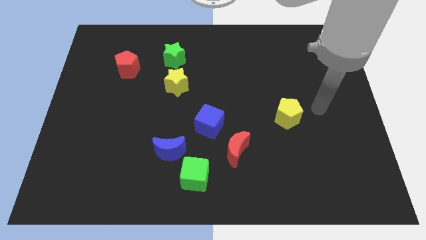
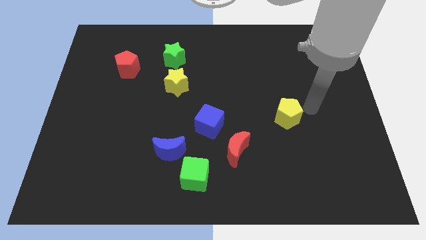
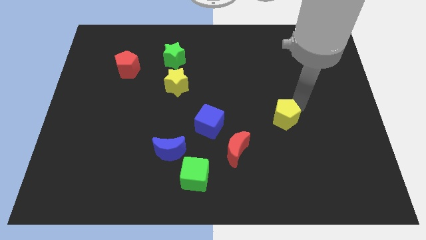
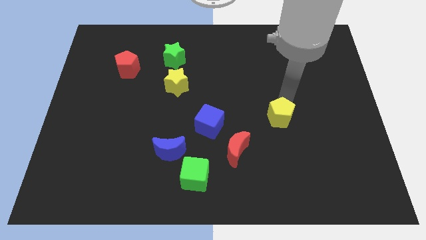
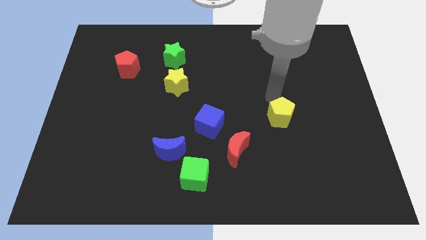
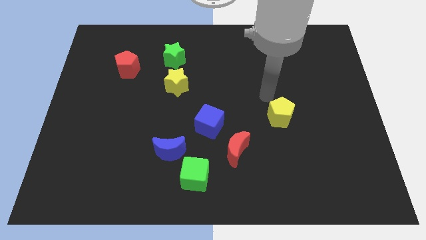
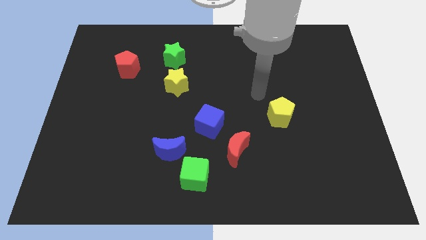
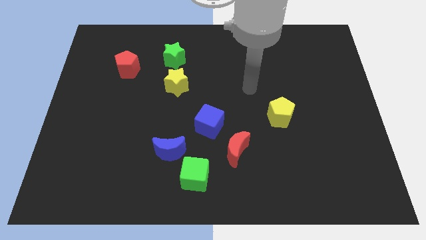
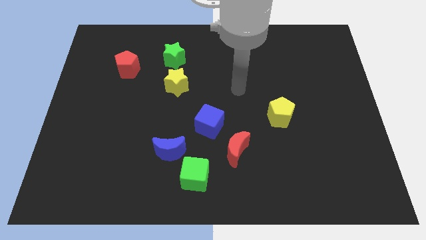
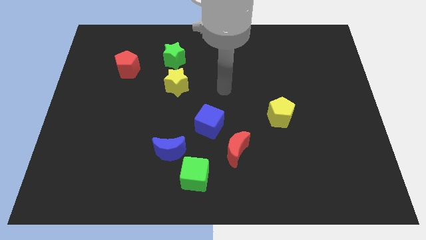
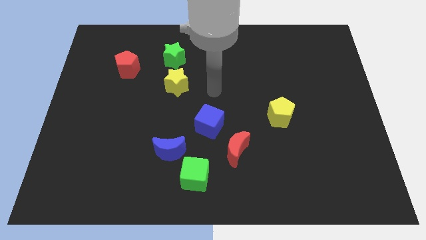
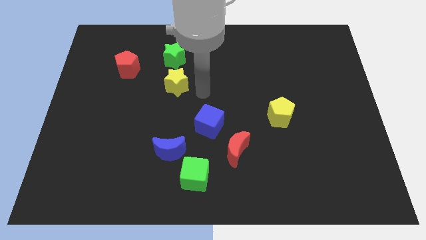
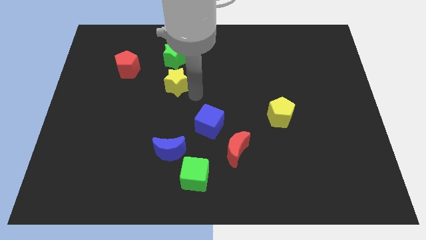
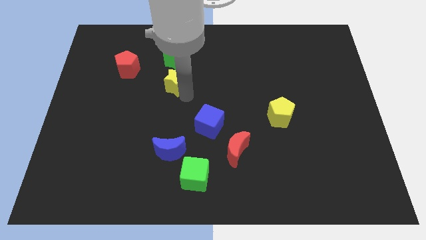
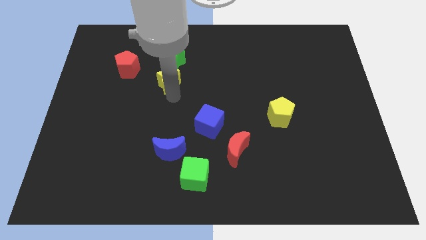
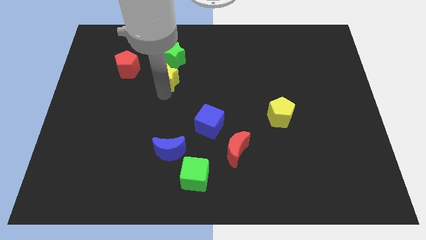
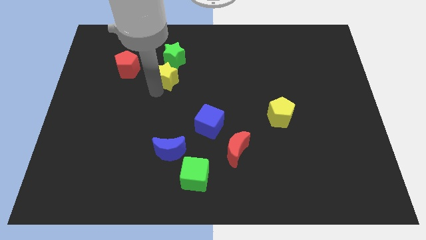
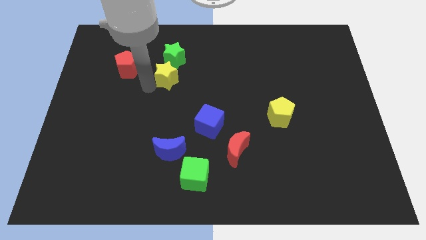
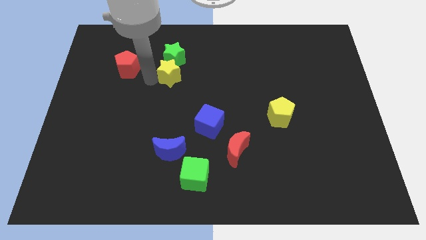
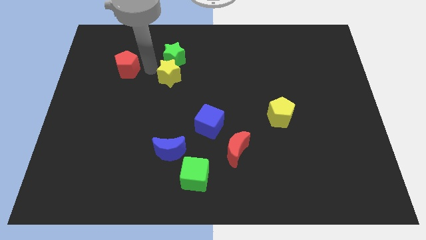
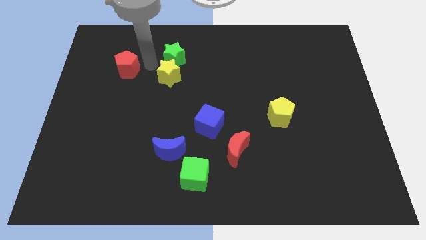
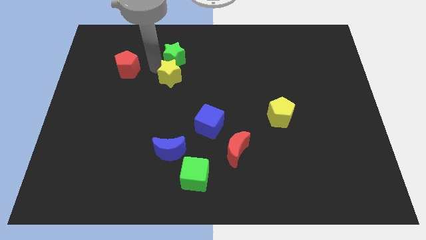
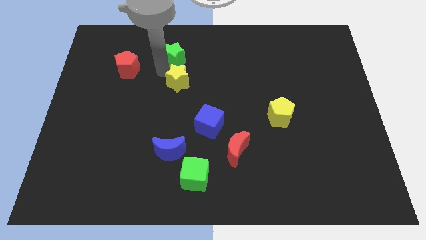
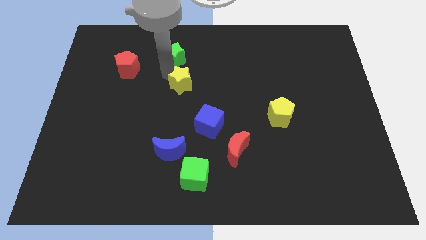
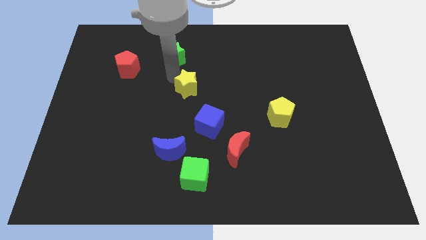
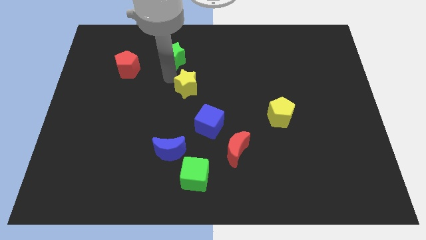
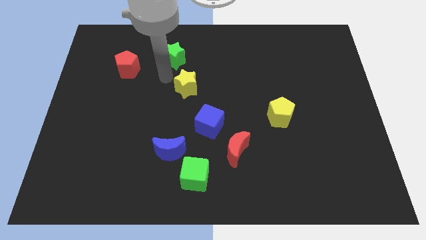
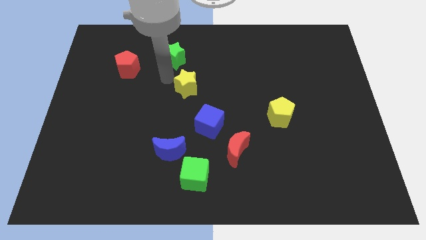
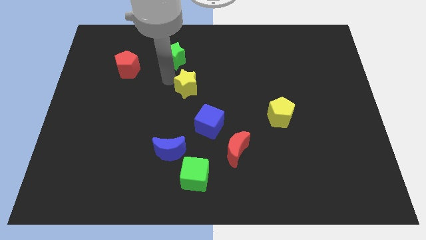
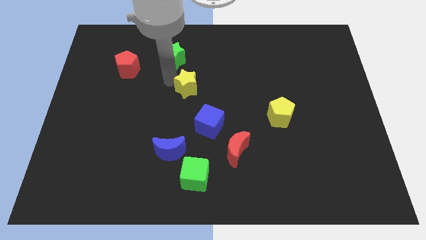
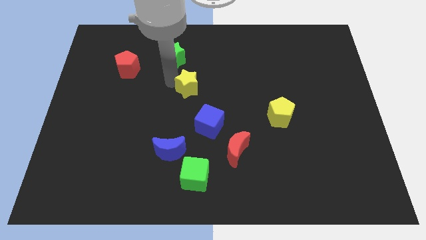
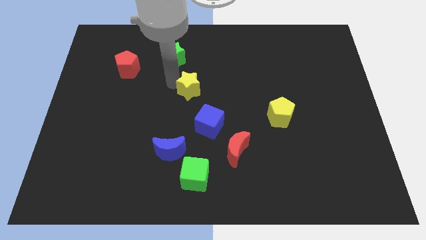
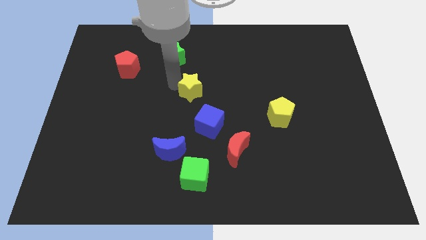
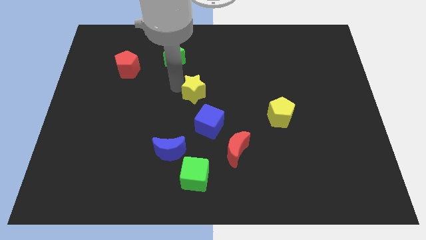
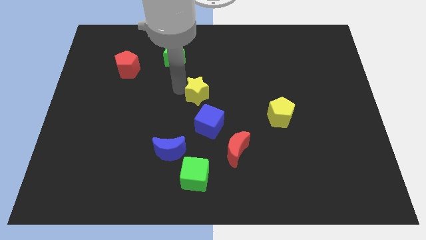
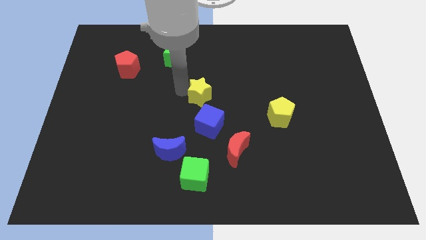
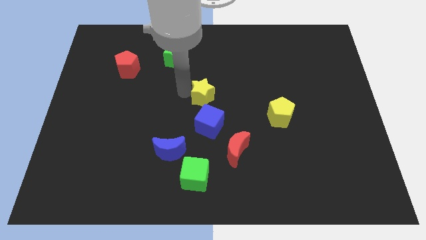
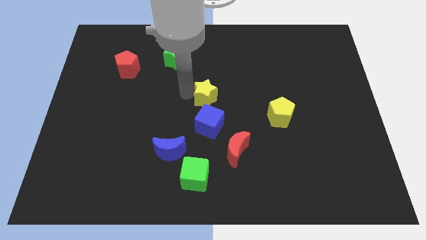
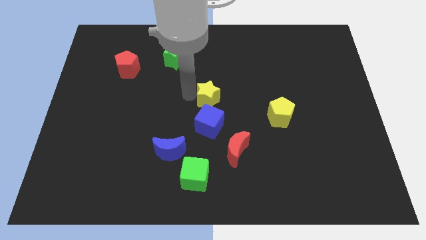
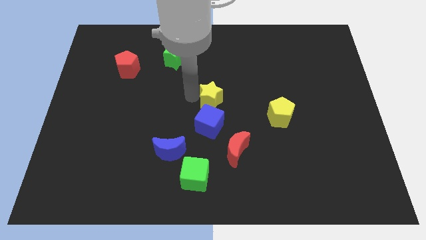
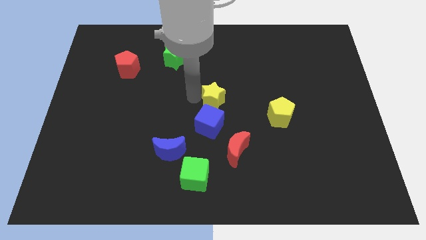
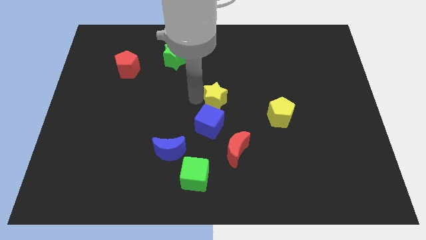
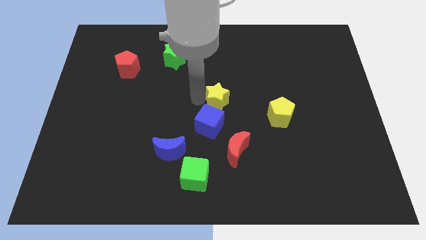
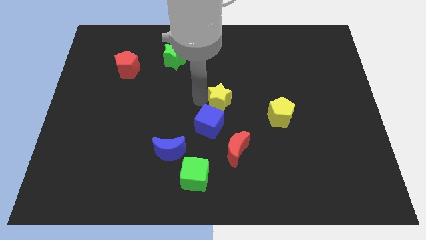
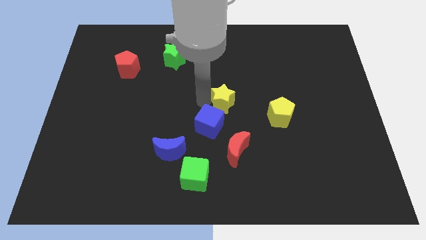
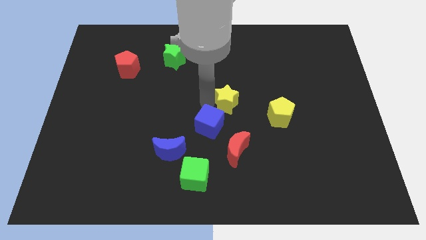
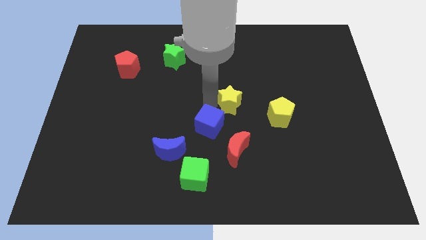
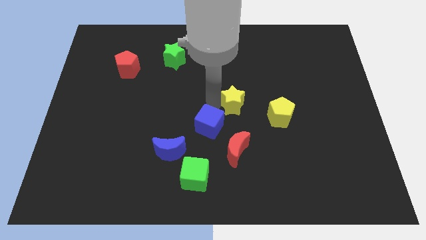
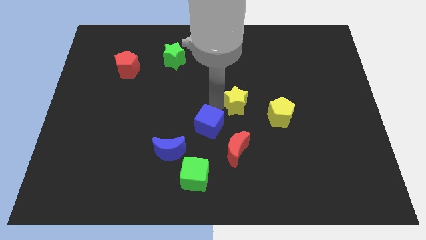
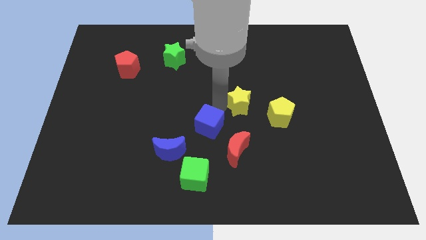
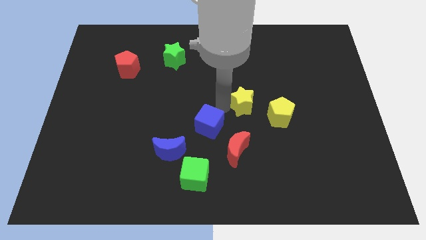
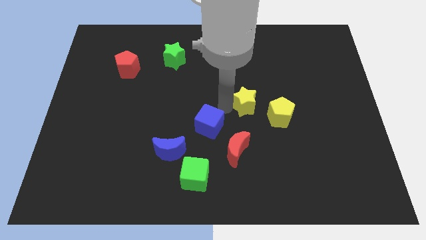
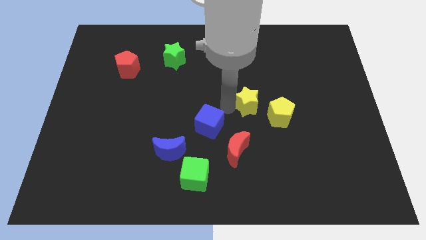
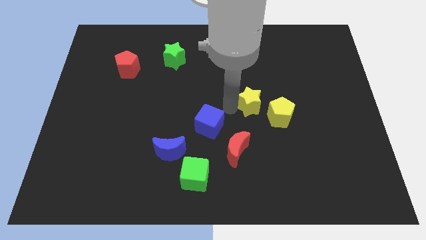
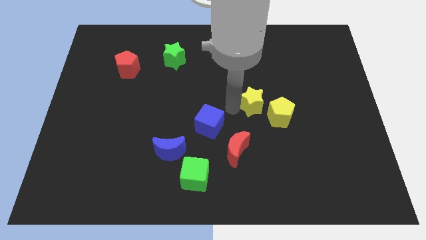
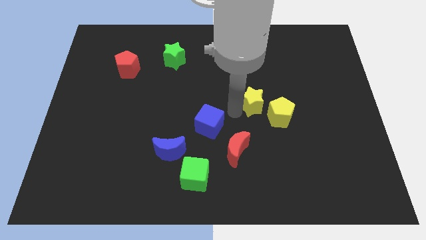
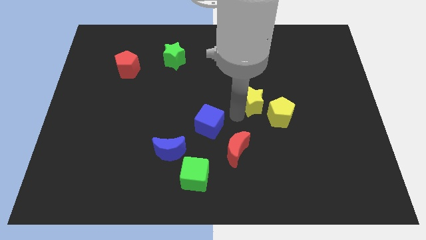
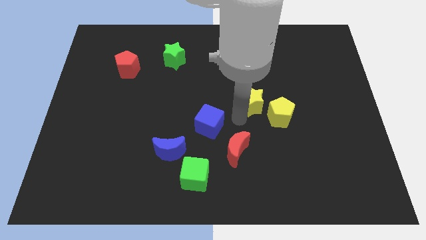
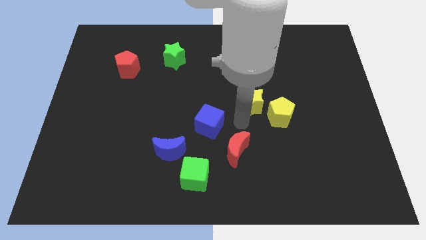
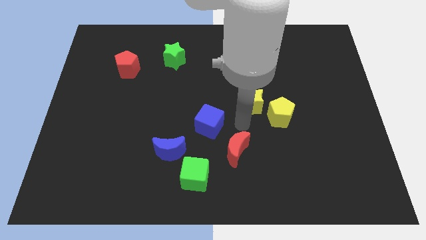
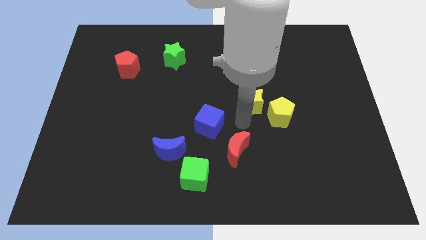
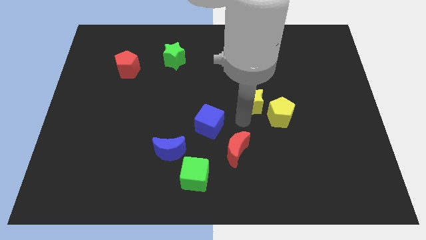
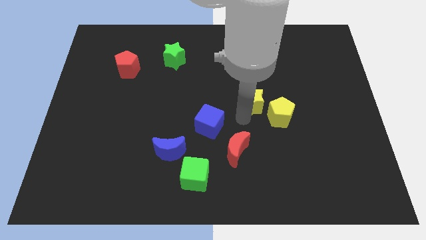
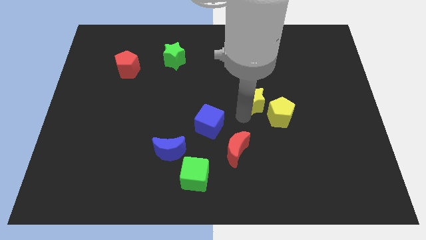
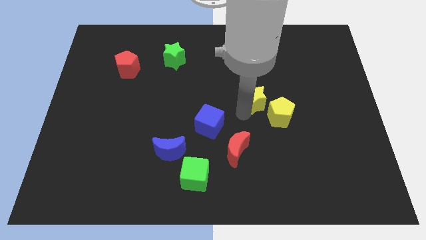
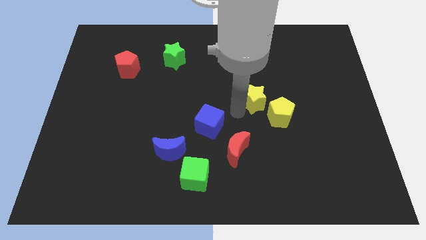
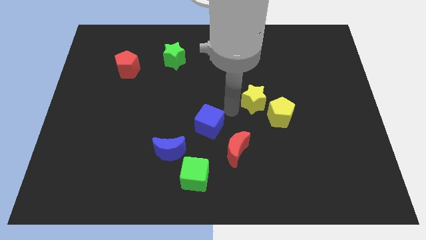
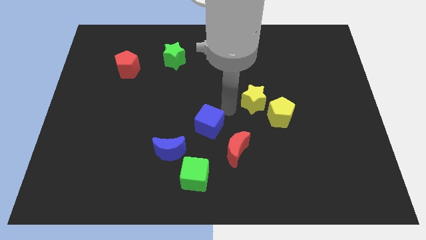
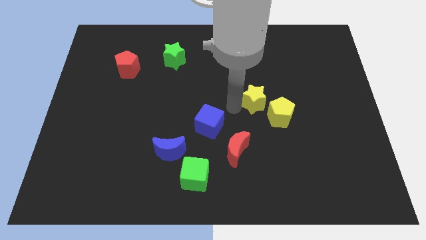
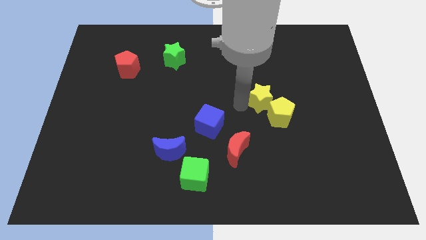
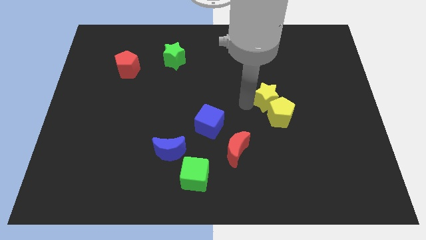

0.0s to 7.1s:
push the yellow star right

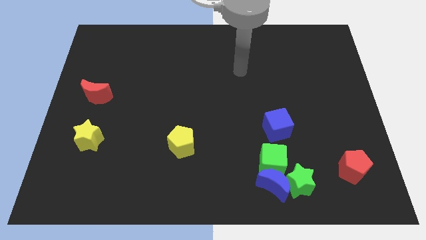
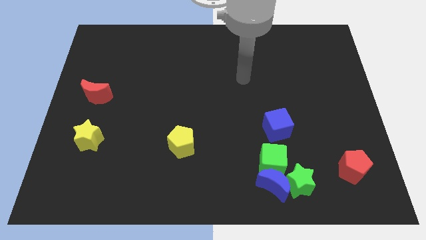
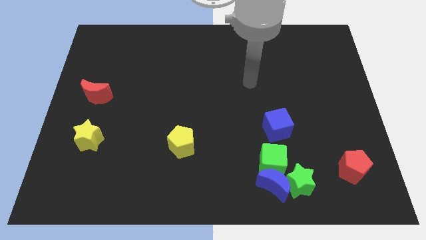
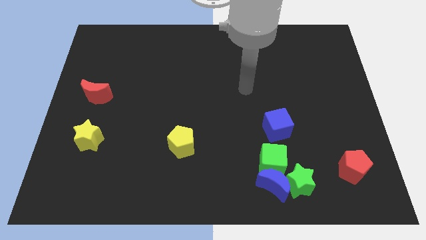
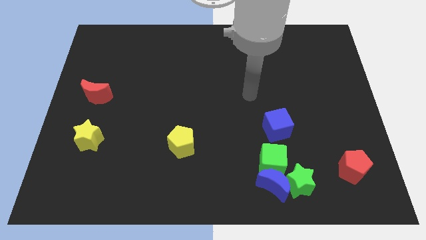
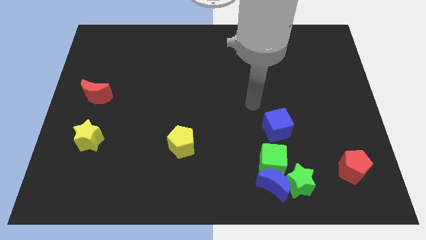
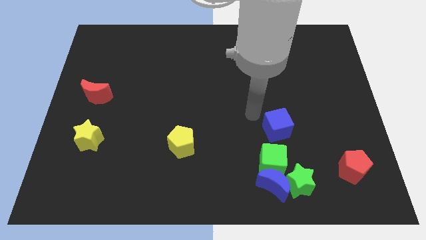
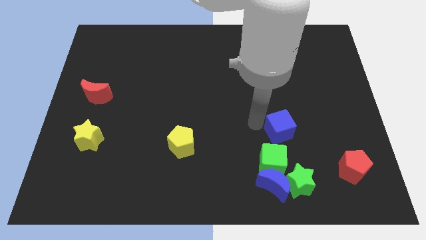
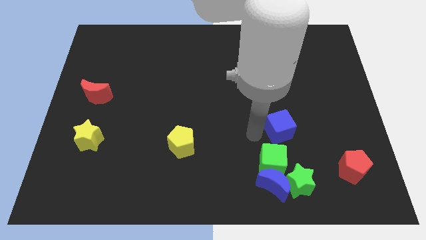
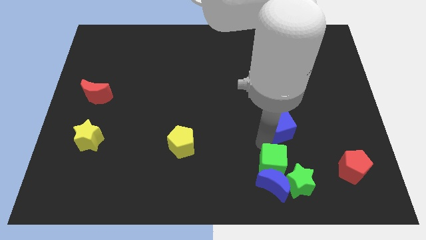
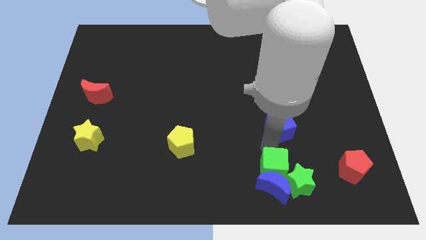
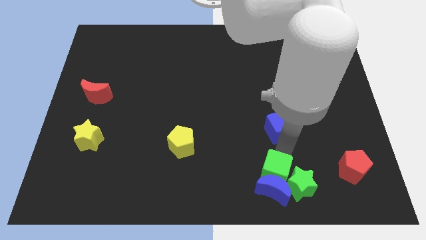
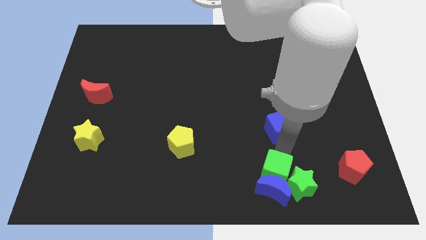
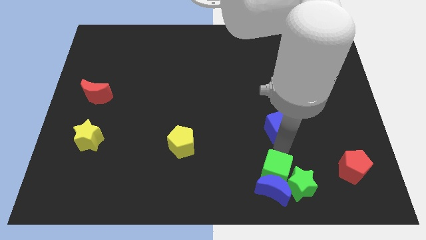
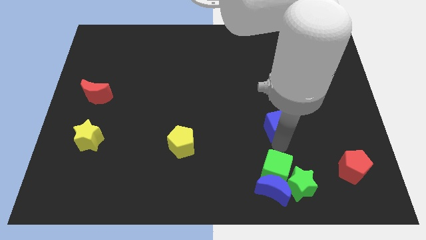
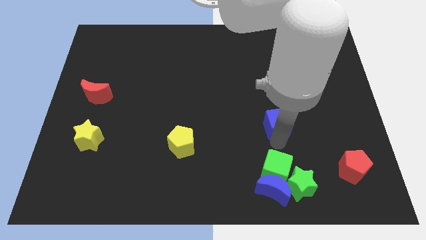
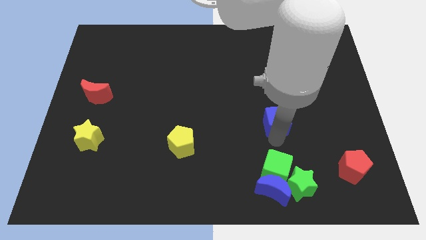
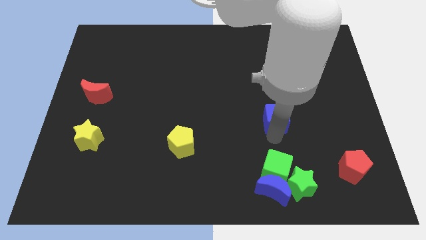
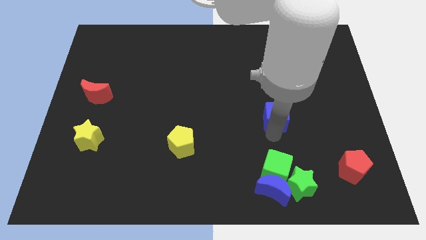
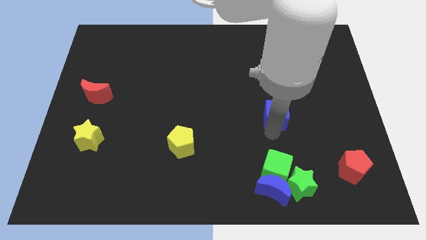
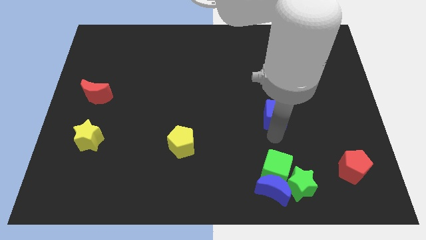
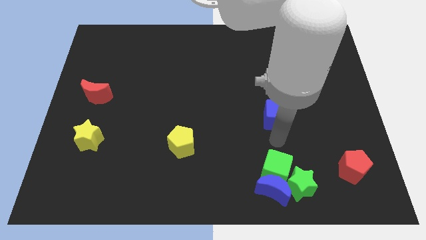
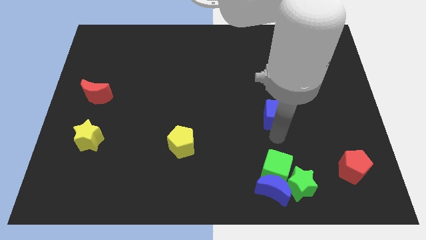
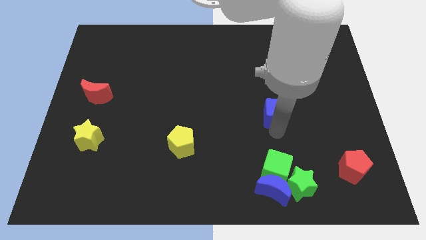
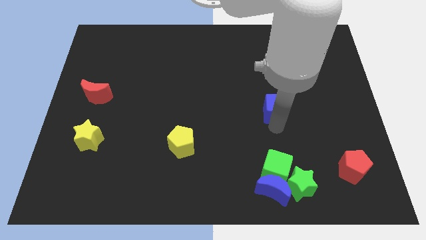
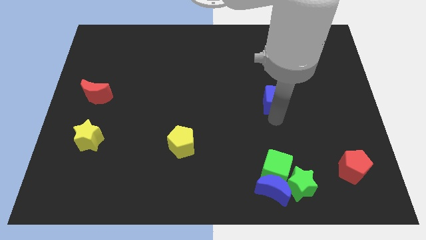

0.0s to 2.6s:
slightly slide the blue cube upwards
